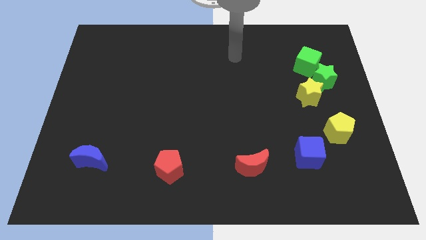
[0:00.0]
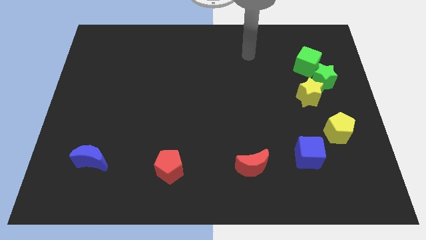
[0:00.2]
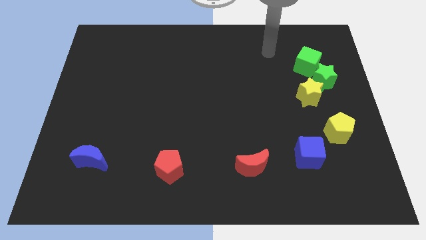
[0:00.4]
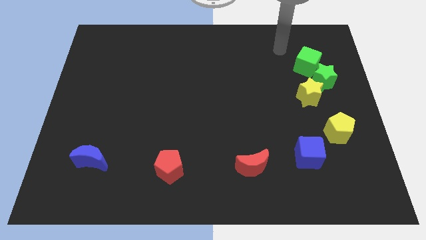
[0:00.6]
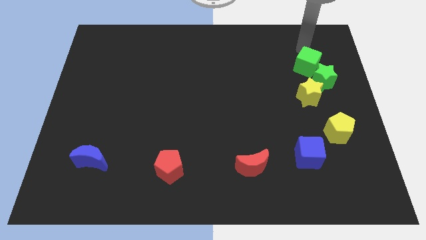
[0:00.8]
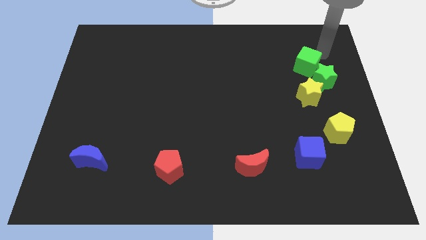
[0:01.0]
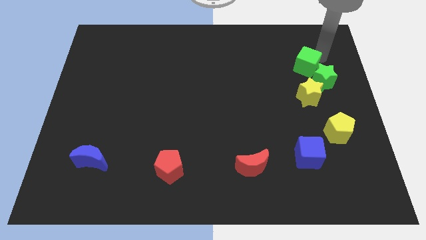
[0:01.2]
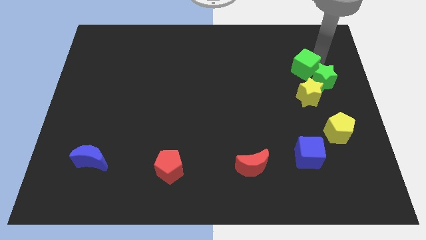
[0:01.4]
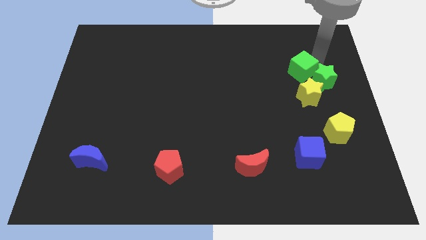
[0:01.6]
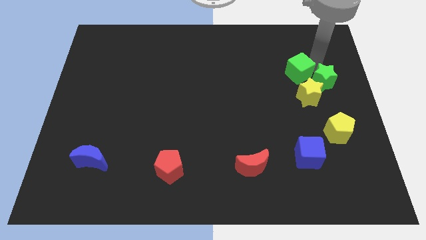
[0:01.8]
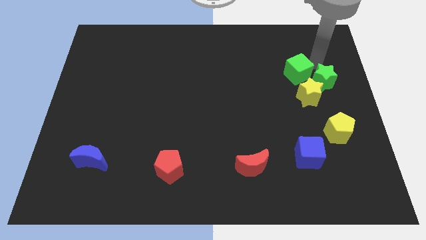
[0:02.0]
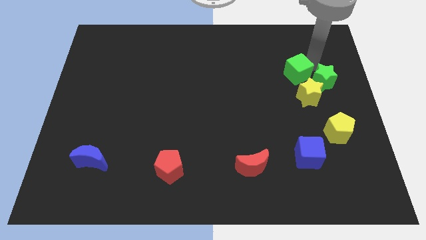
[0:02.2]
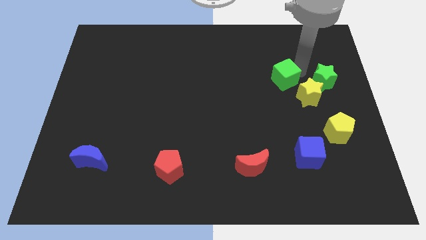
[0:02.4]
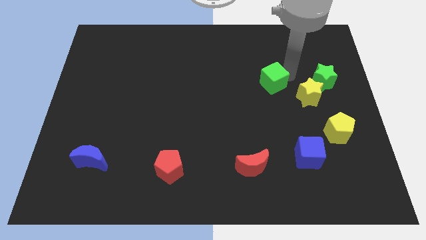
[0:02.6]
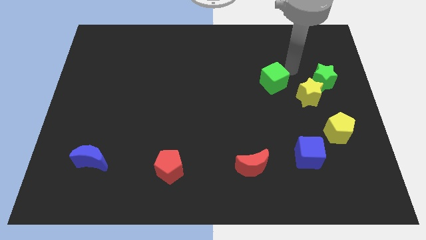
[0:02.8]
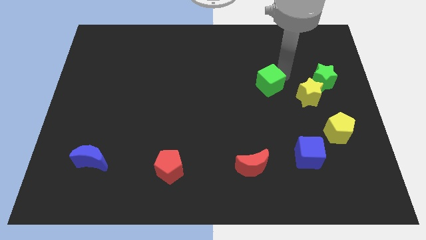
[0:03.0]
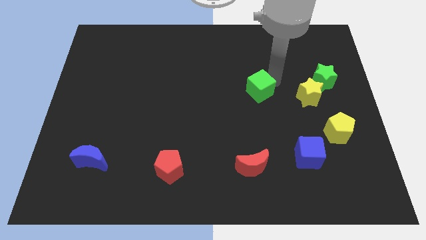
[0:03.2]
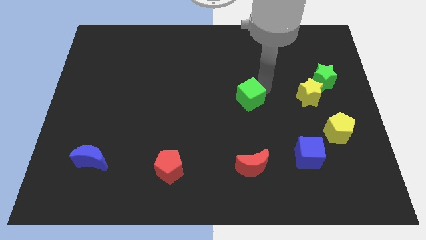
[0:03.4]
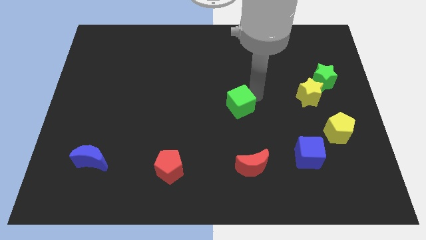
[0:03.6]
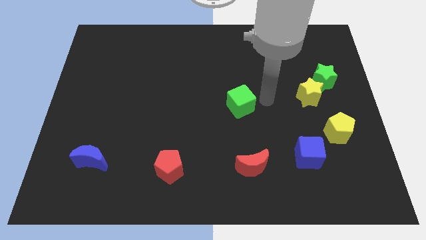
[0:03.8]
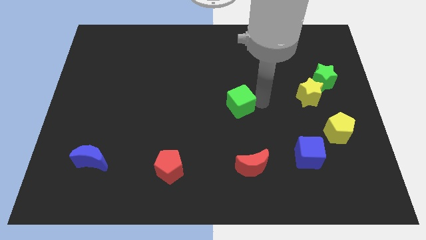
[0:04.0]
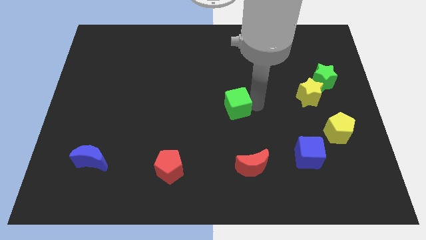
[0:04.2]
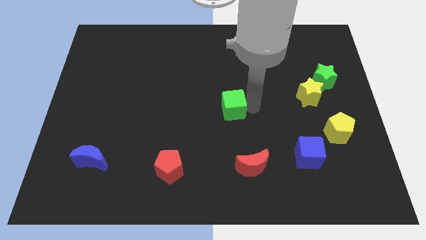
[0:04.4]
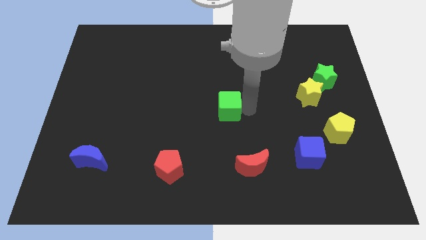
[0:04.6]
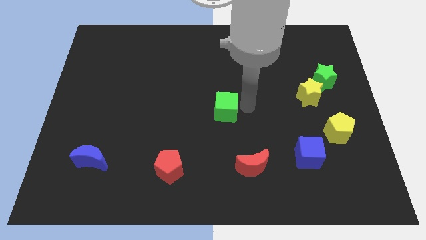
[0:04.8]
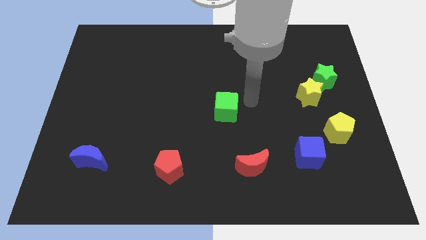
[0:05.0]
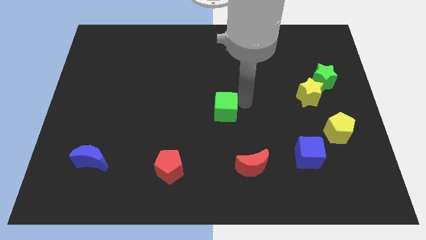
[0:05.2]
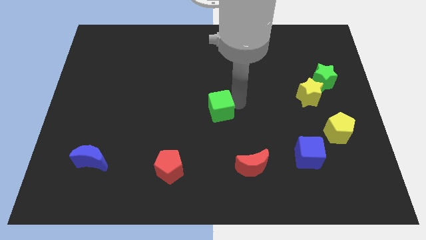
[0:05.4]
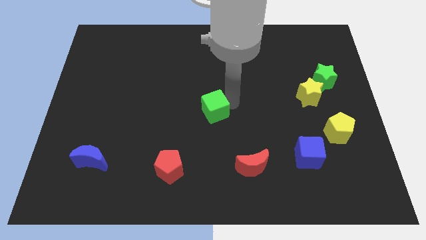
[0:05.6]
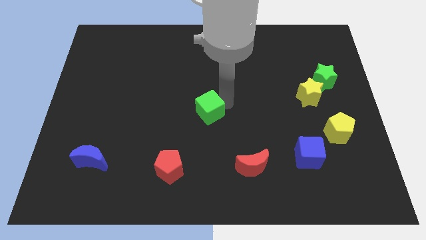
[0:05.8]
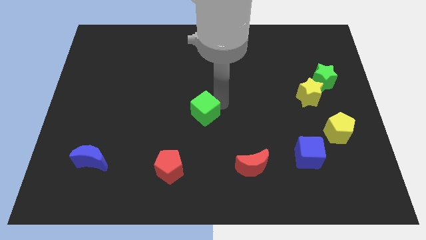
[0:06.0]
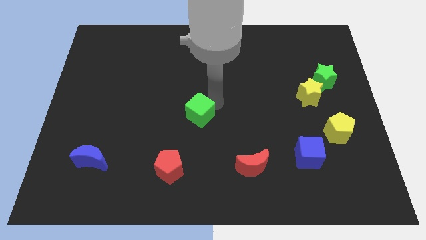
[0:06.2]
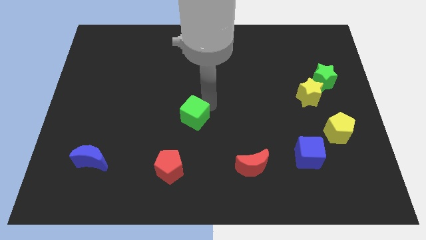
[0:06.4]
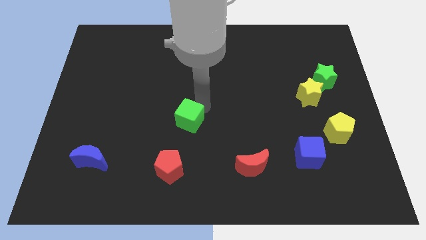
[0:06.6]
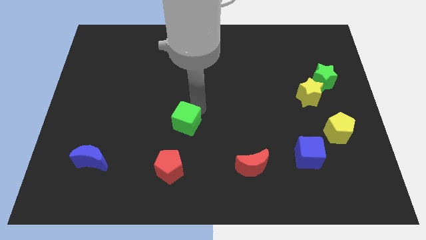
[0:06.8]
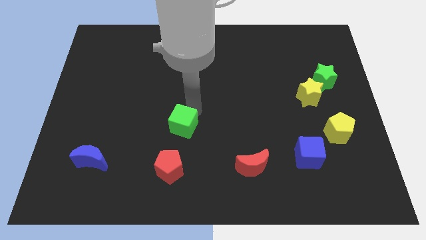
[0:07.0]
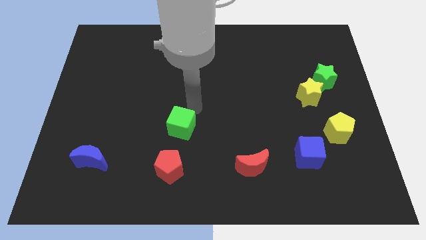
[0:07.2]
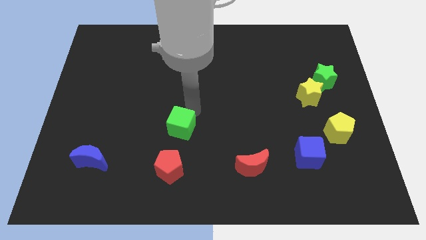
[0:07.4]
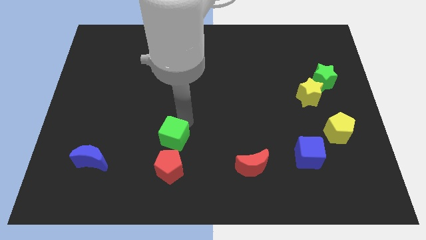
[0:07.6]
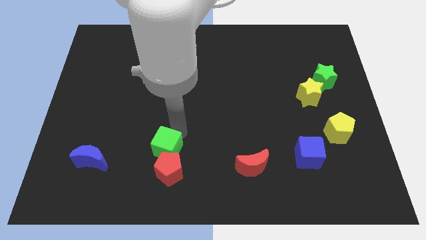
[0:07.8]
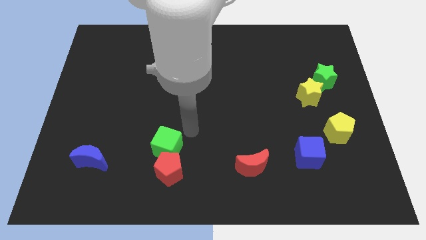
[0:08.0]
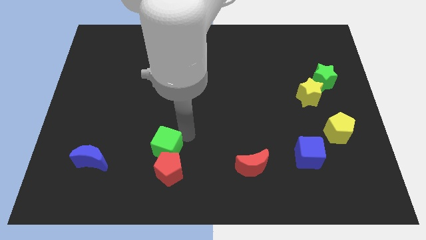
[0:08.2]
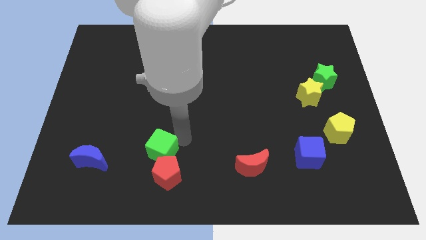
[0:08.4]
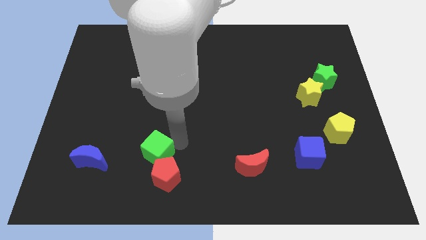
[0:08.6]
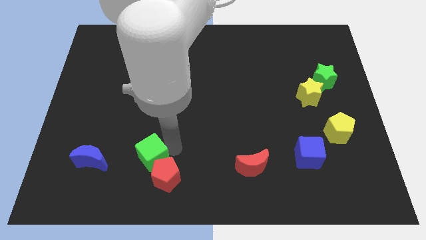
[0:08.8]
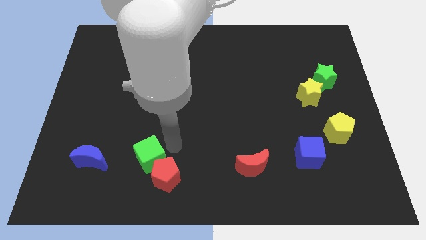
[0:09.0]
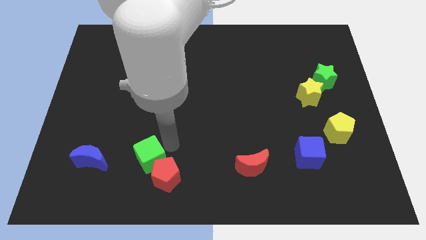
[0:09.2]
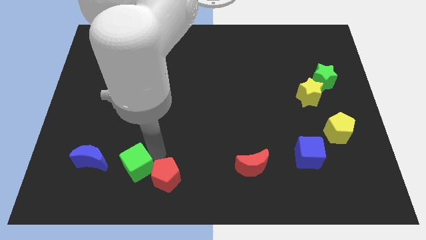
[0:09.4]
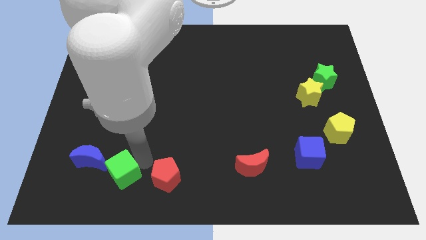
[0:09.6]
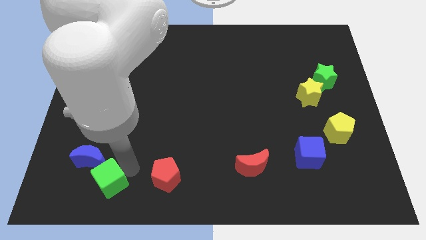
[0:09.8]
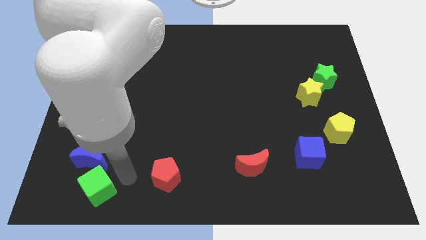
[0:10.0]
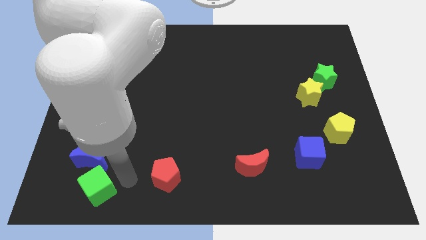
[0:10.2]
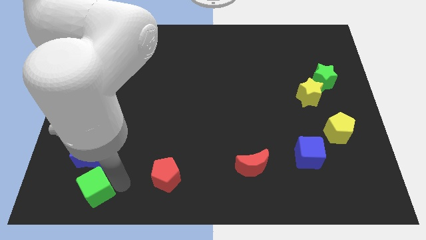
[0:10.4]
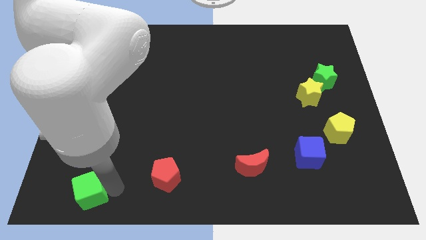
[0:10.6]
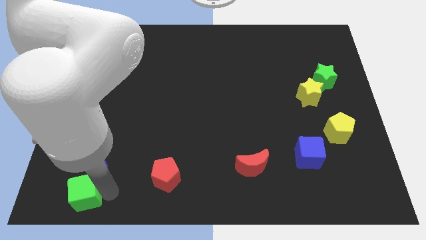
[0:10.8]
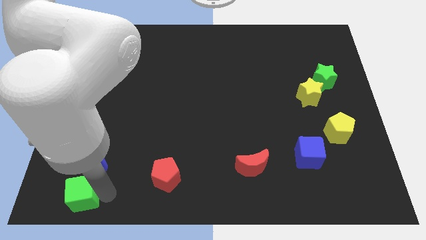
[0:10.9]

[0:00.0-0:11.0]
push the green cube to the bottom left

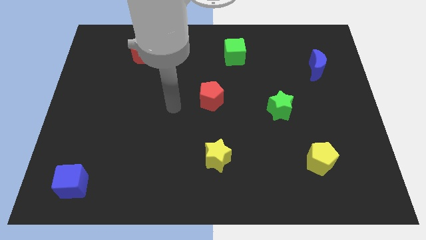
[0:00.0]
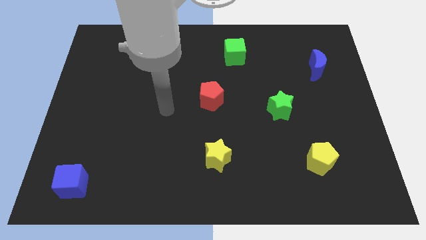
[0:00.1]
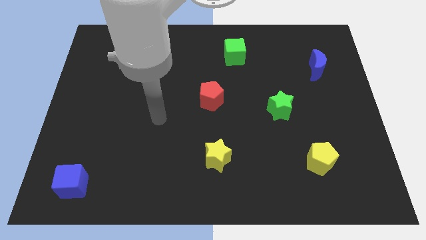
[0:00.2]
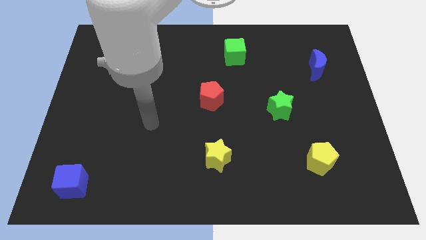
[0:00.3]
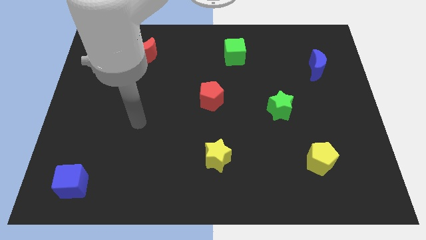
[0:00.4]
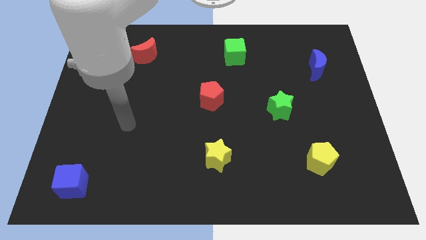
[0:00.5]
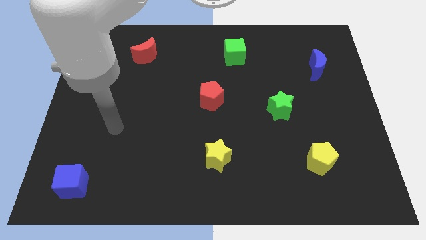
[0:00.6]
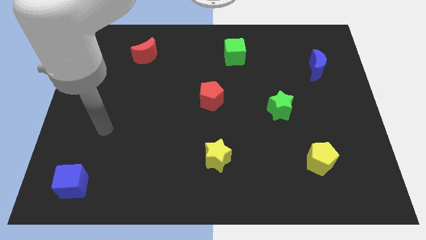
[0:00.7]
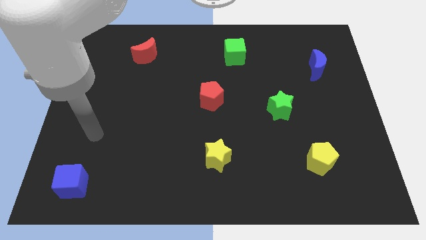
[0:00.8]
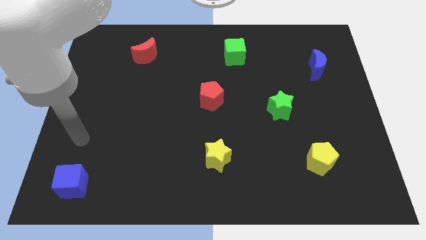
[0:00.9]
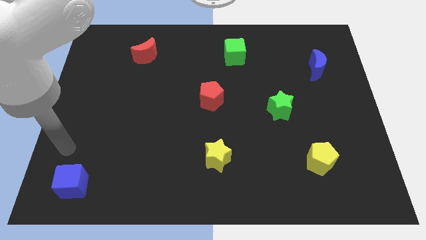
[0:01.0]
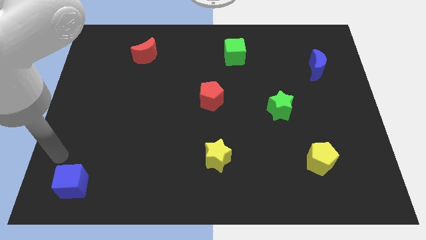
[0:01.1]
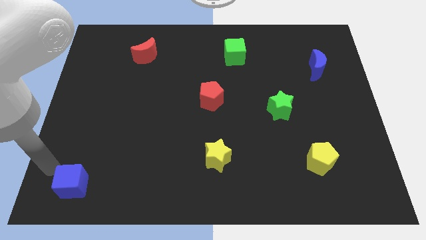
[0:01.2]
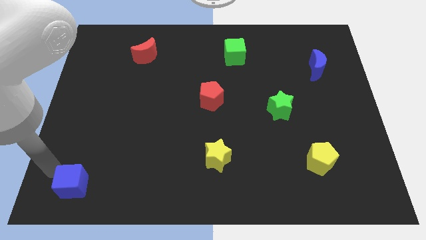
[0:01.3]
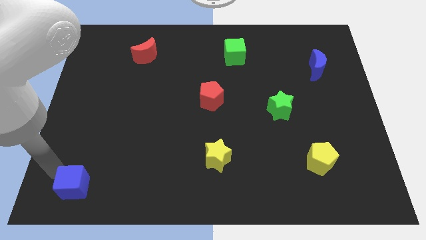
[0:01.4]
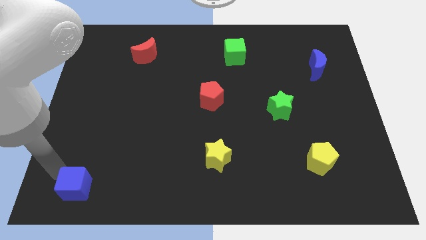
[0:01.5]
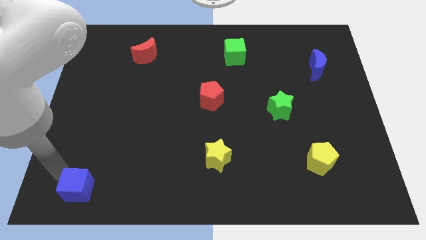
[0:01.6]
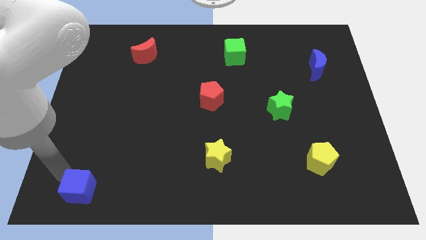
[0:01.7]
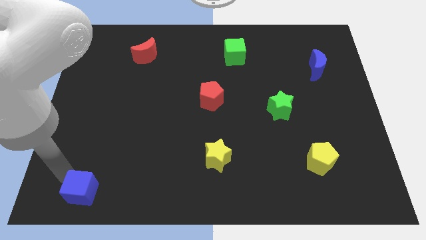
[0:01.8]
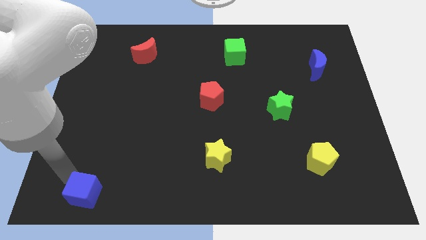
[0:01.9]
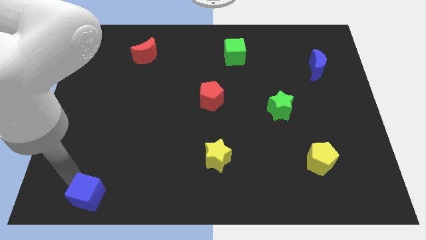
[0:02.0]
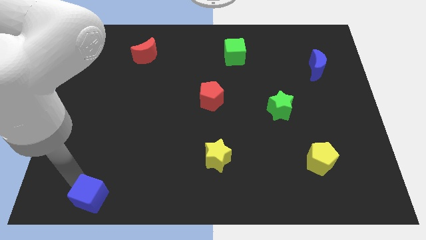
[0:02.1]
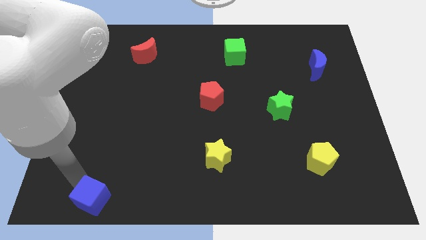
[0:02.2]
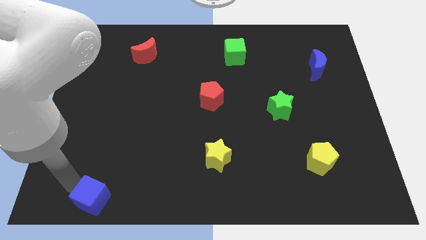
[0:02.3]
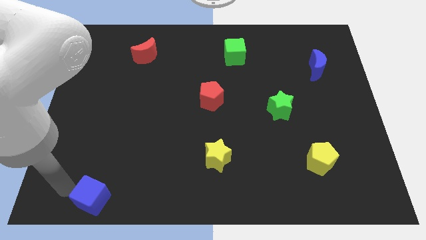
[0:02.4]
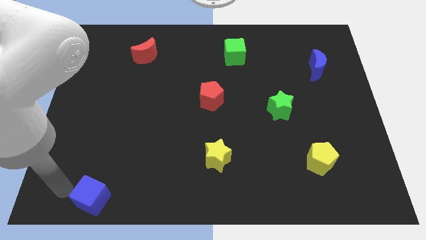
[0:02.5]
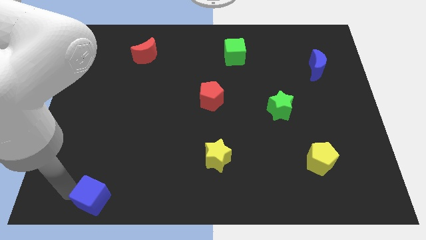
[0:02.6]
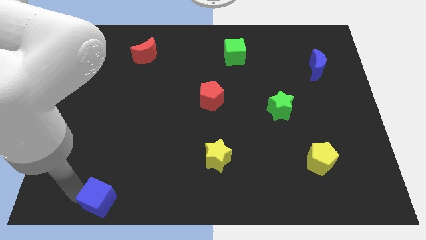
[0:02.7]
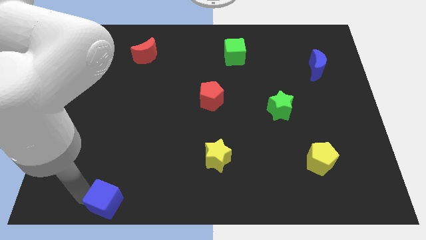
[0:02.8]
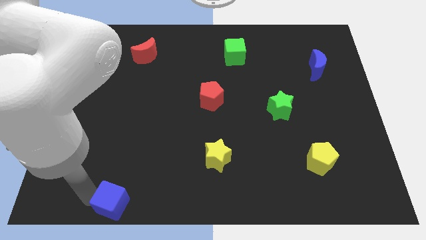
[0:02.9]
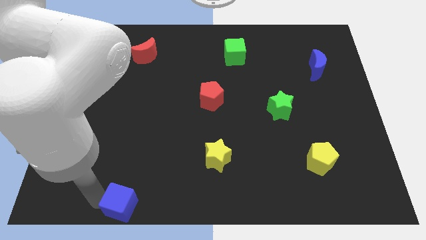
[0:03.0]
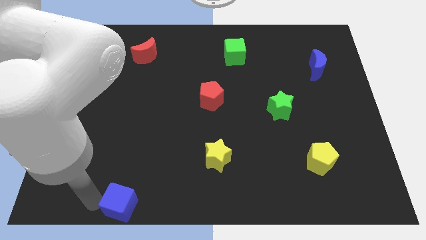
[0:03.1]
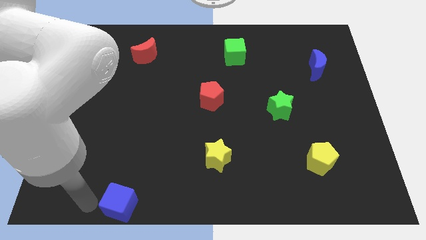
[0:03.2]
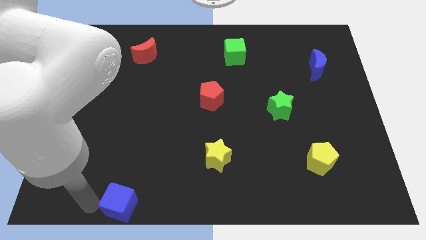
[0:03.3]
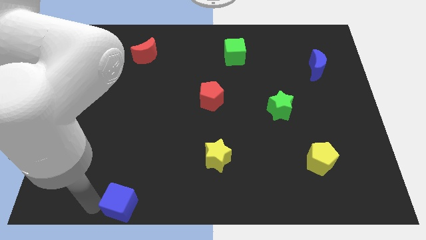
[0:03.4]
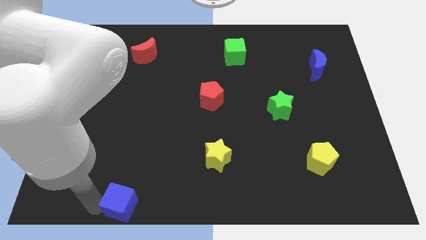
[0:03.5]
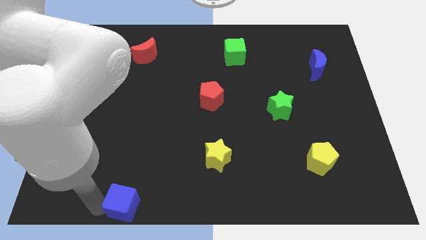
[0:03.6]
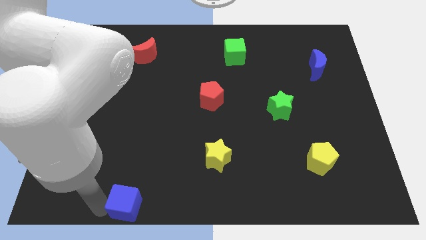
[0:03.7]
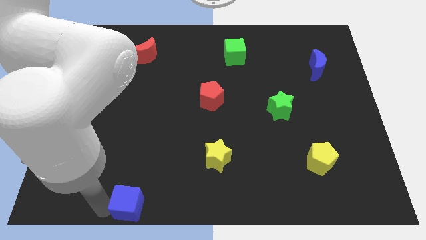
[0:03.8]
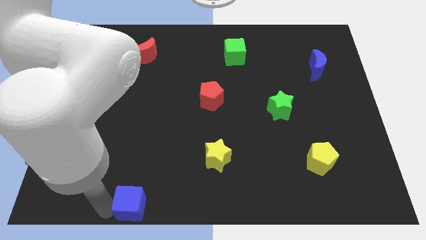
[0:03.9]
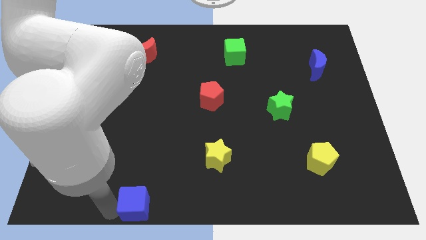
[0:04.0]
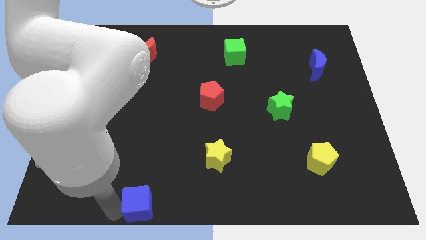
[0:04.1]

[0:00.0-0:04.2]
push the blue cube to the bottom side
